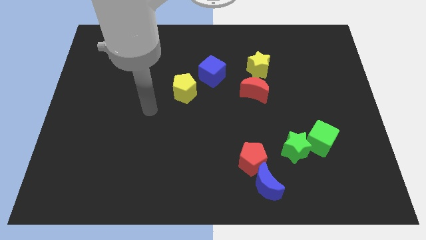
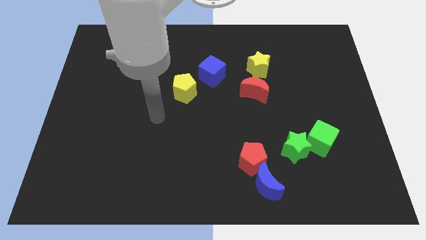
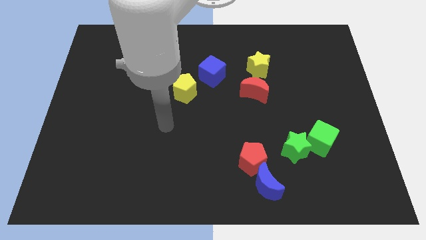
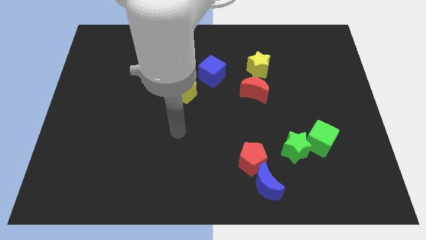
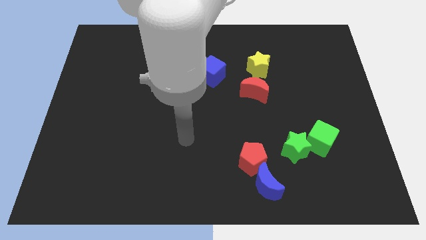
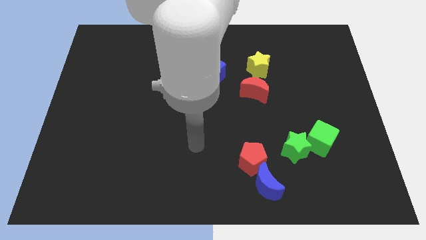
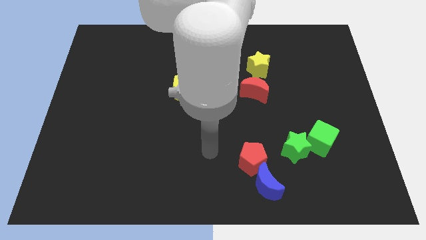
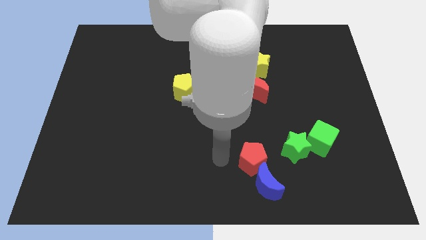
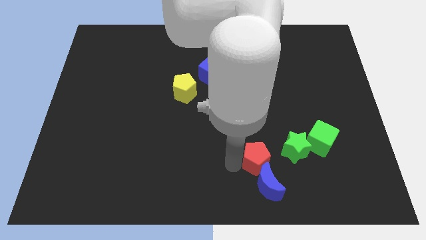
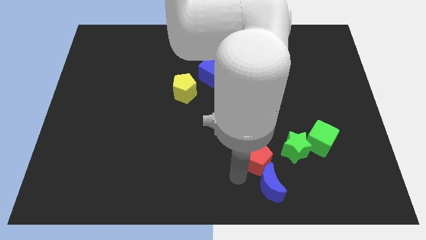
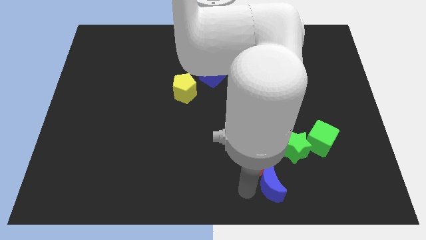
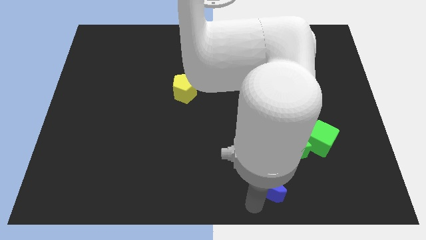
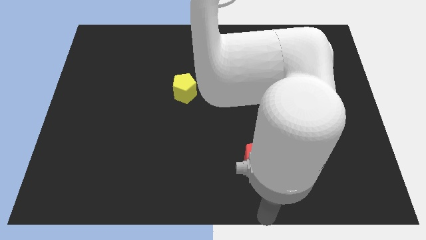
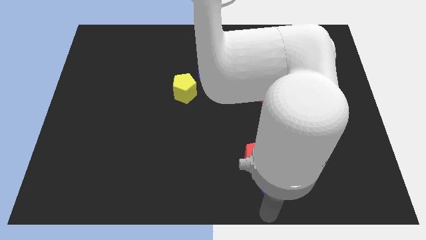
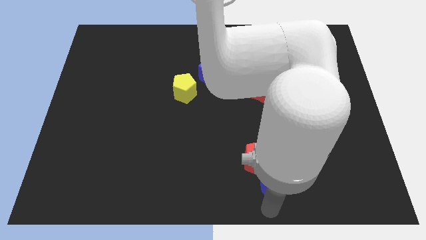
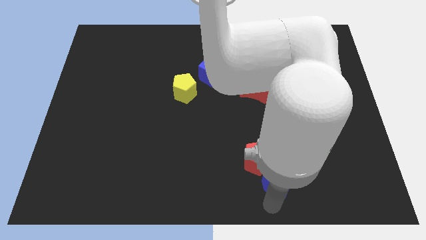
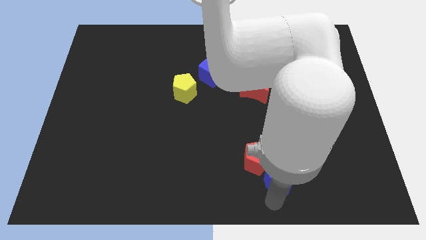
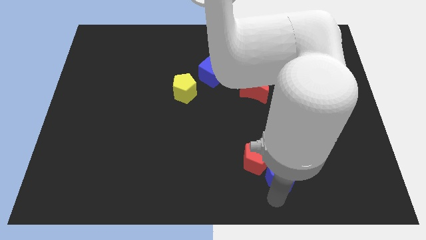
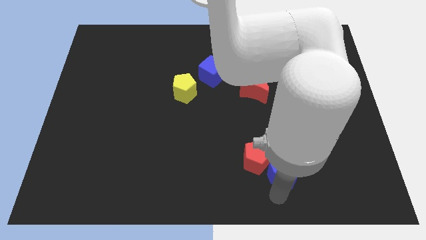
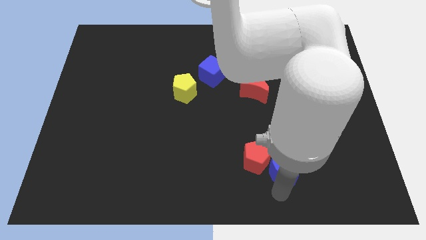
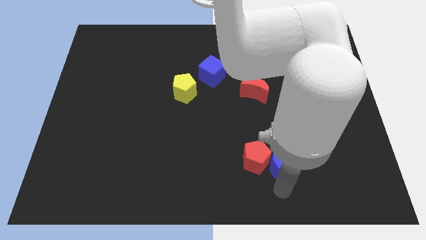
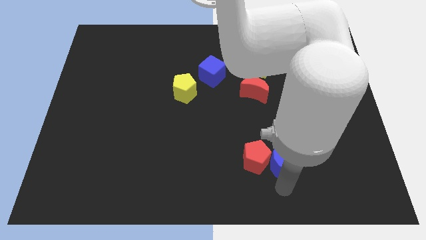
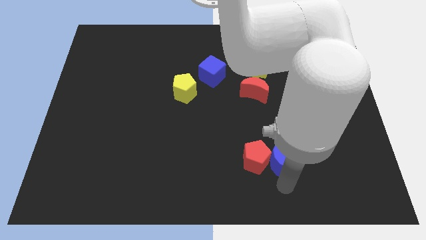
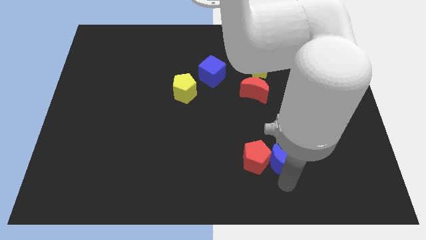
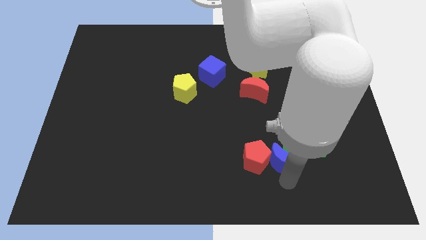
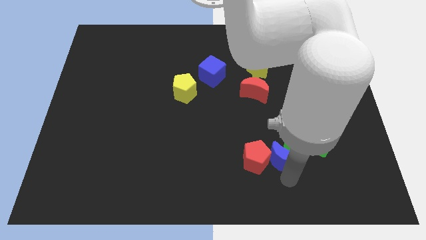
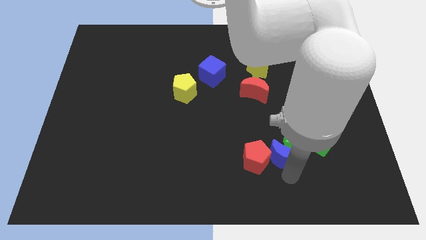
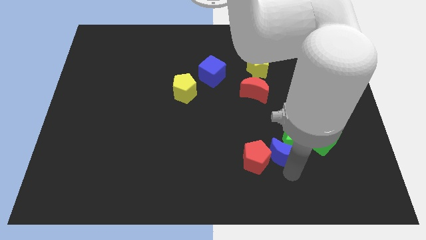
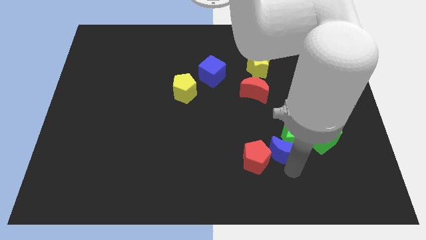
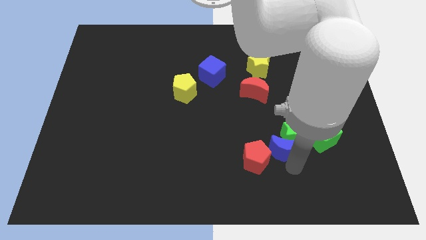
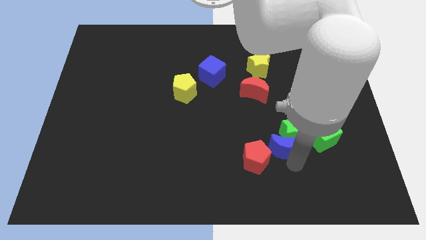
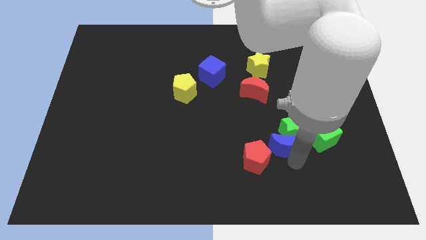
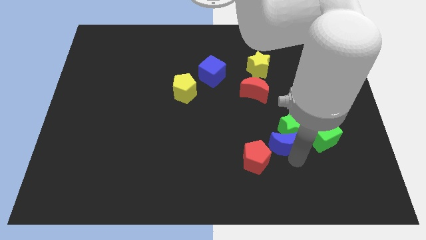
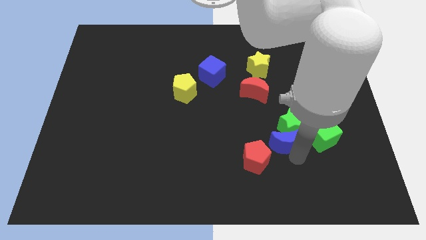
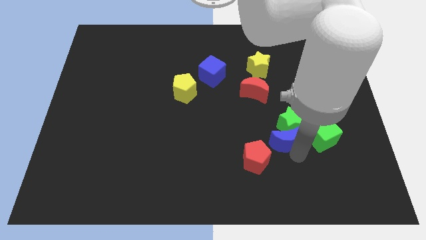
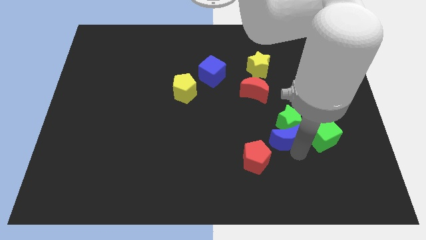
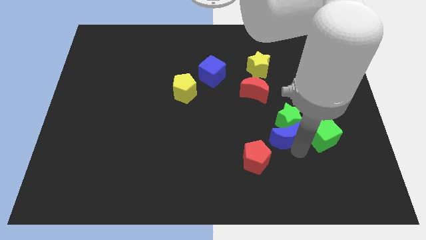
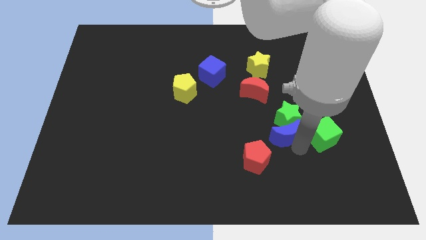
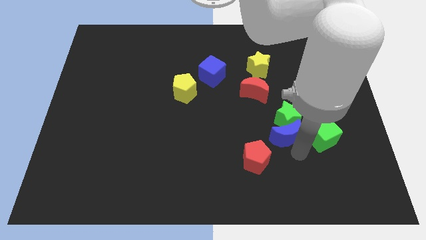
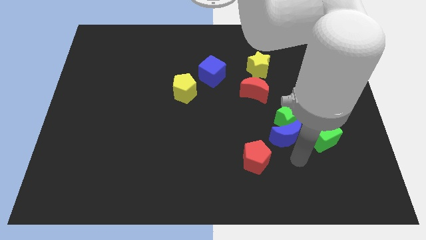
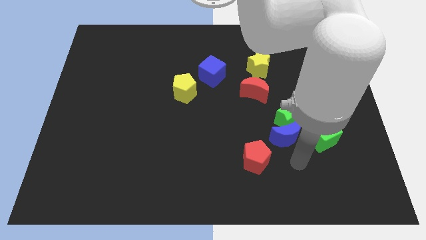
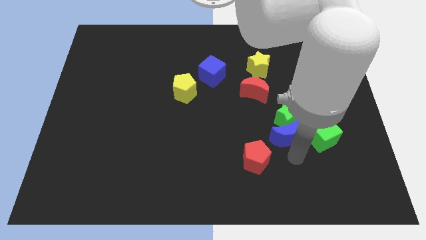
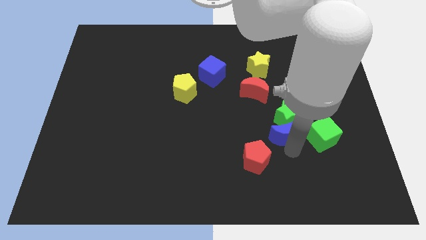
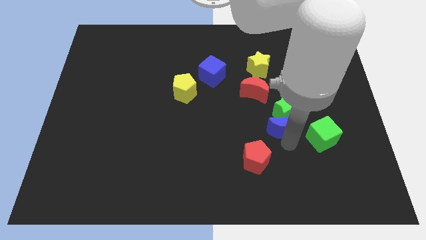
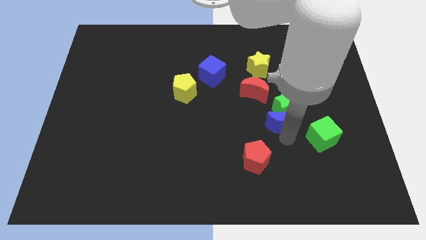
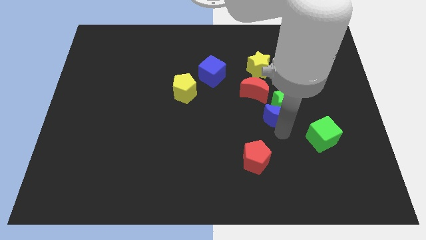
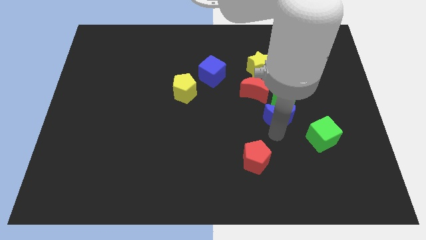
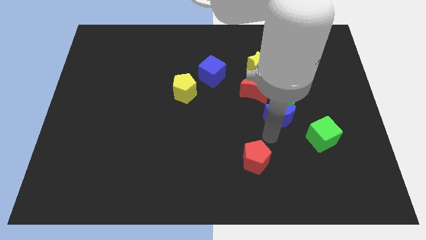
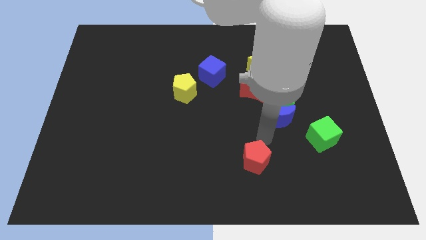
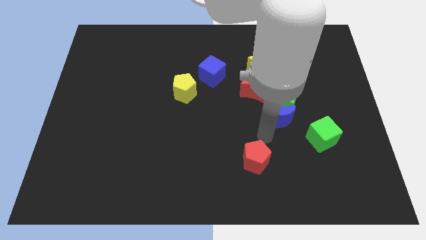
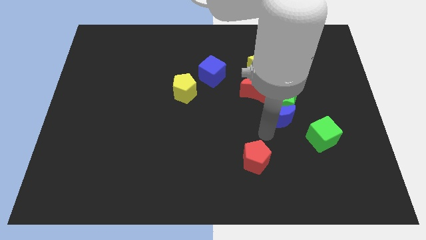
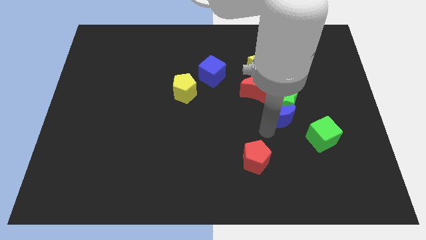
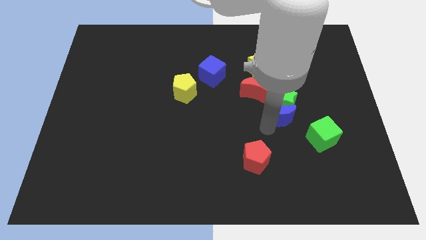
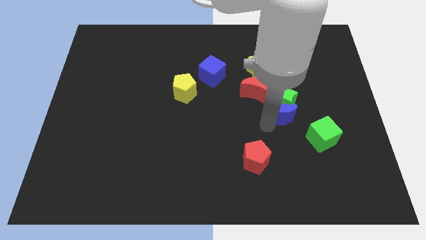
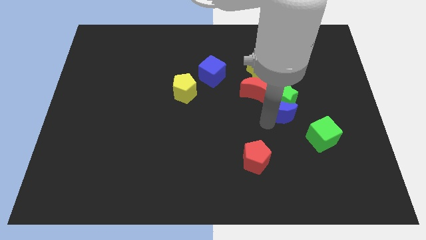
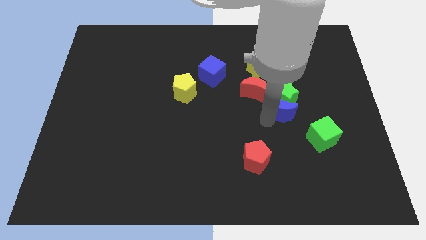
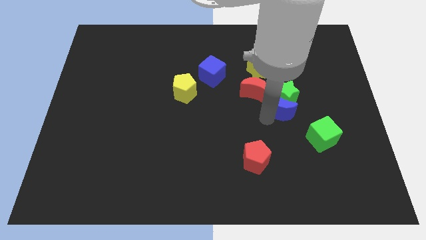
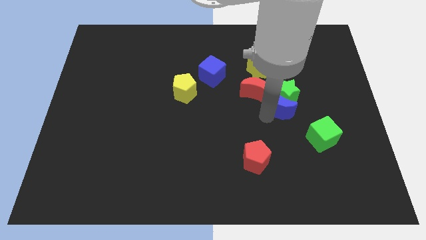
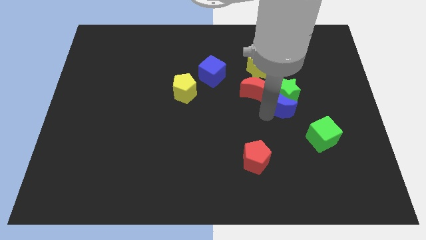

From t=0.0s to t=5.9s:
slide the blue moon just right of the red moon

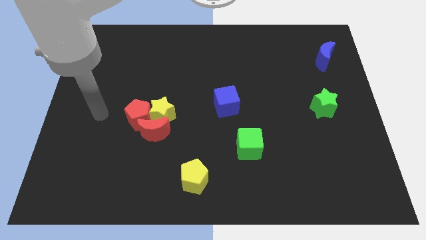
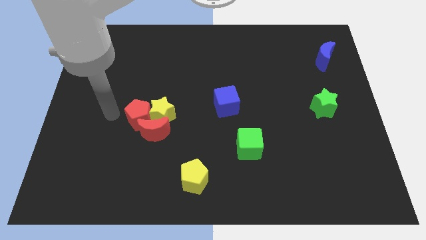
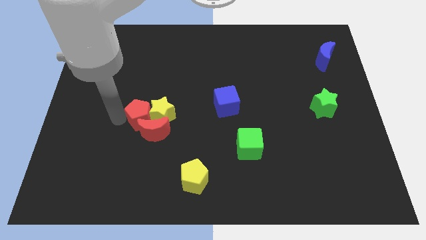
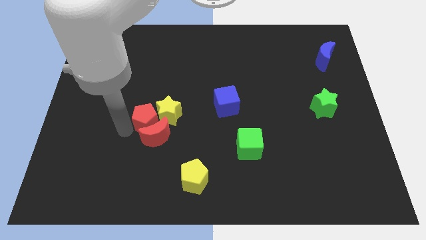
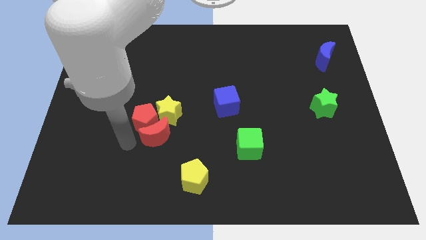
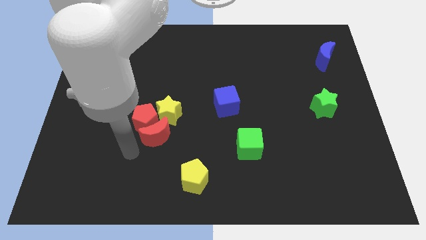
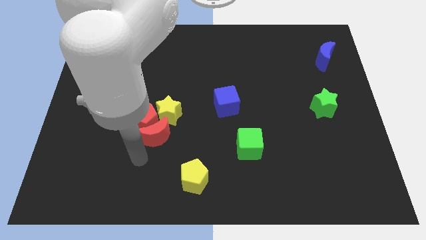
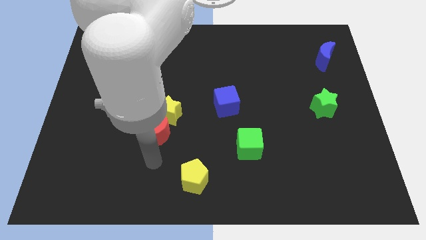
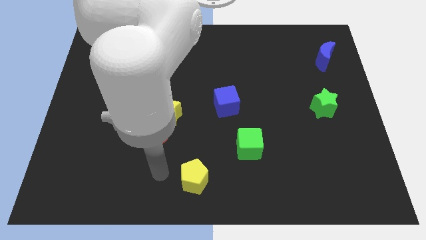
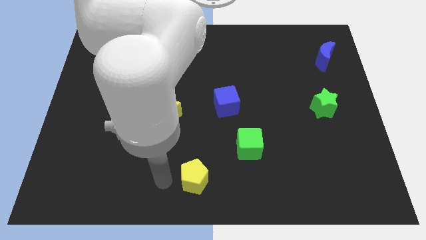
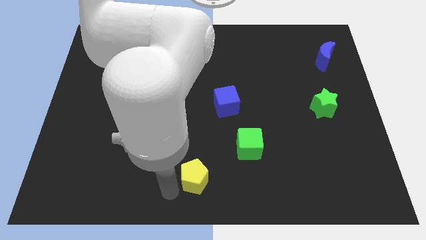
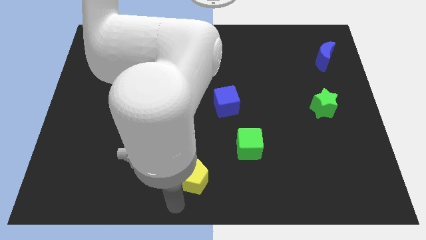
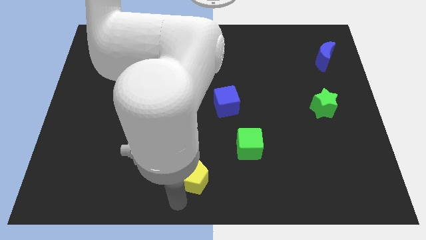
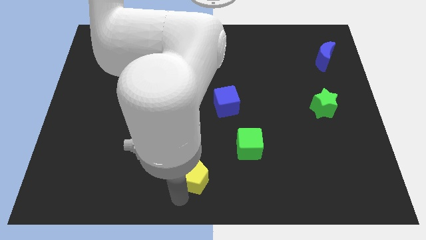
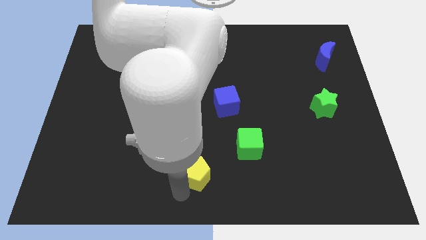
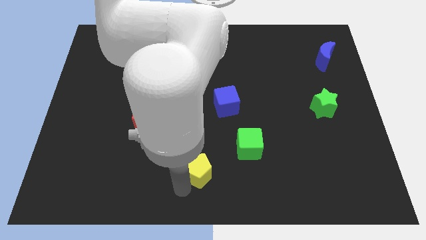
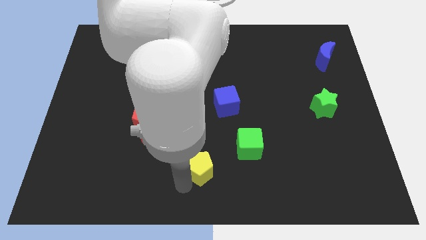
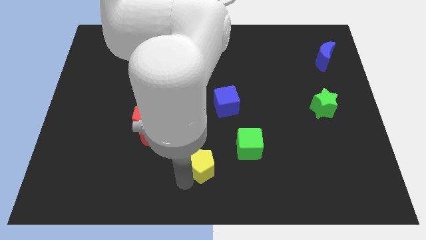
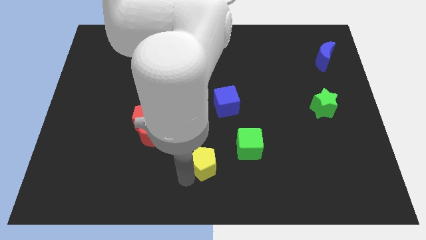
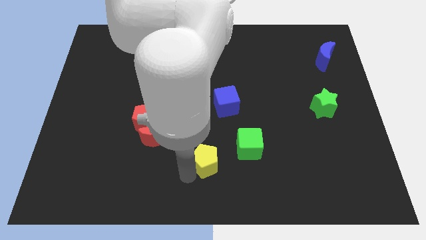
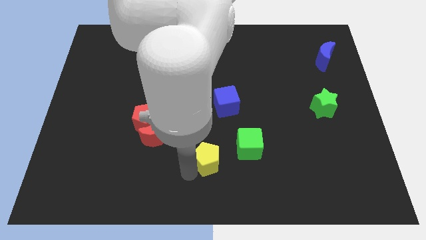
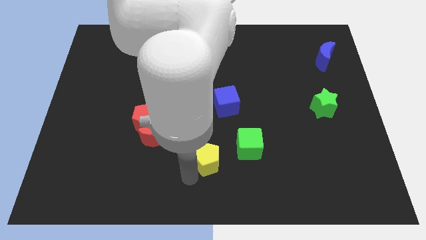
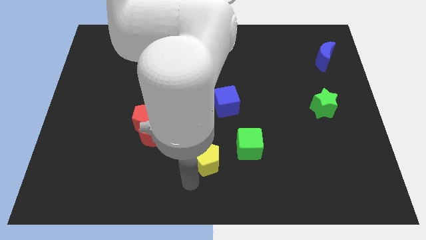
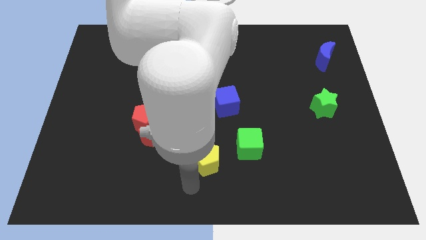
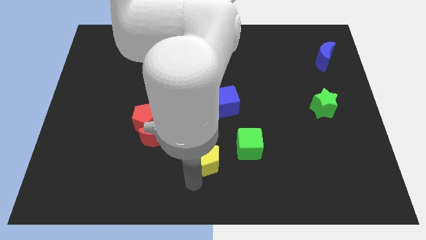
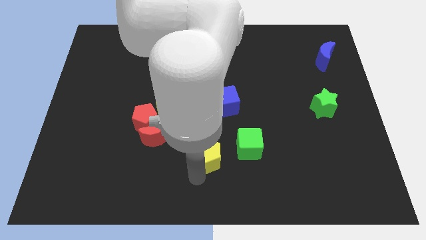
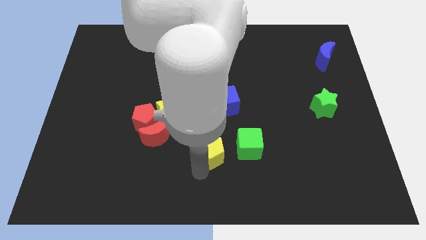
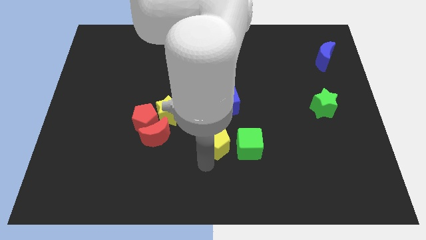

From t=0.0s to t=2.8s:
push the yellow pentagon to the top left side of the green cube
